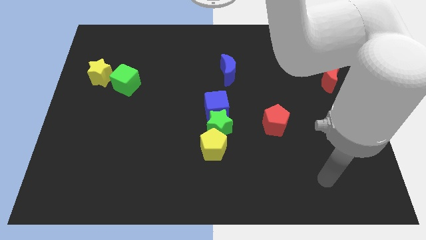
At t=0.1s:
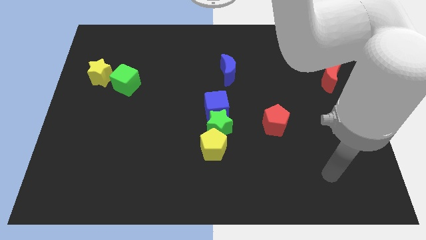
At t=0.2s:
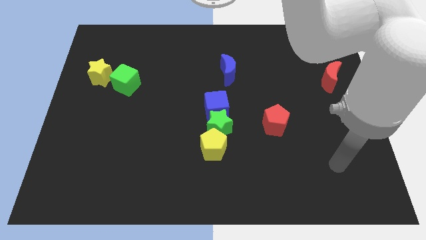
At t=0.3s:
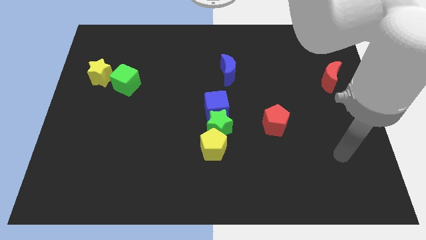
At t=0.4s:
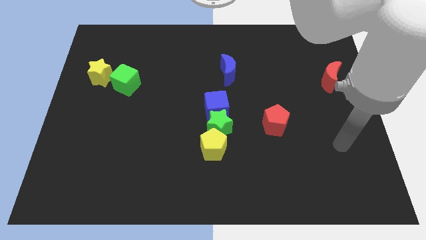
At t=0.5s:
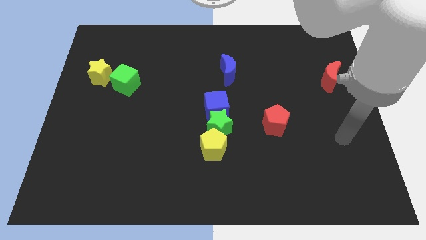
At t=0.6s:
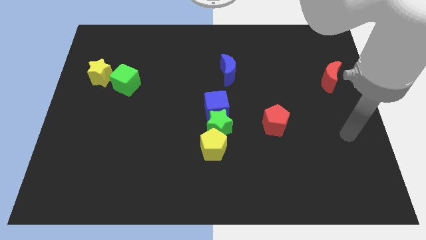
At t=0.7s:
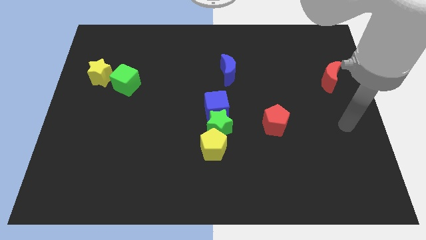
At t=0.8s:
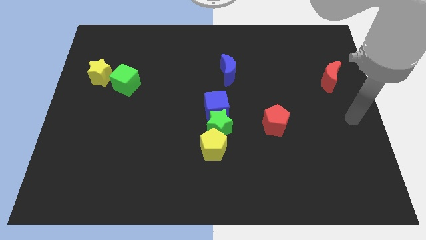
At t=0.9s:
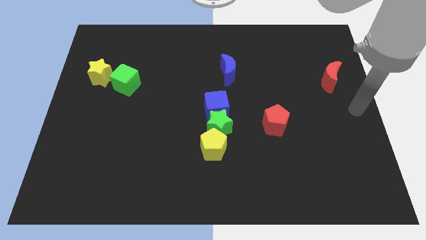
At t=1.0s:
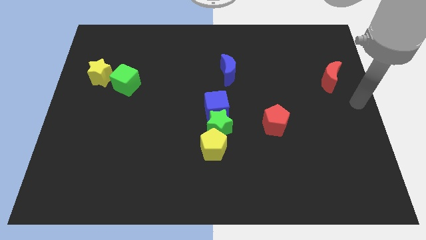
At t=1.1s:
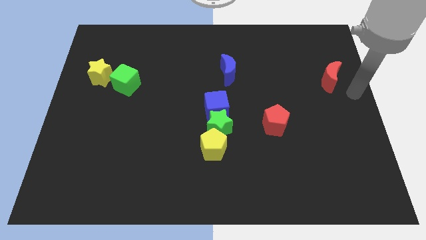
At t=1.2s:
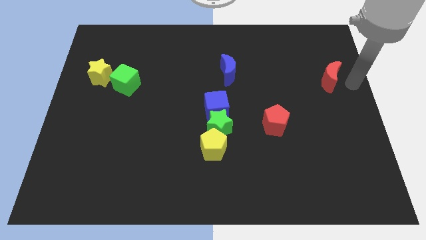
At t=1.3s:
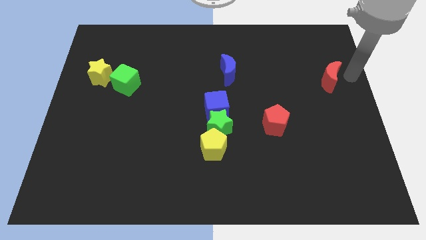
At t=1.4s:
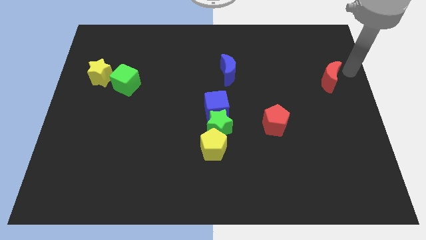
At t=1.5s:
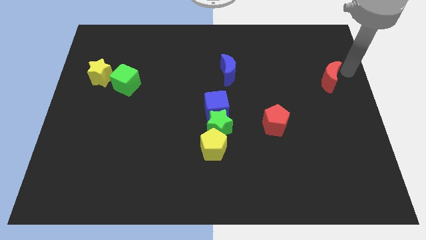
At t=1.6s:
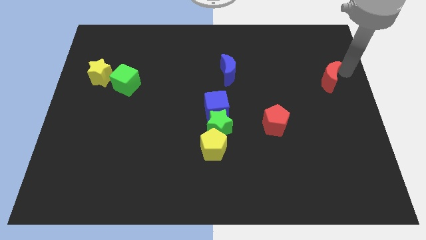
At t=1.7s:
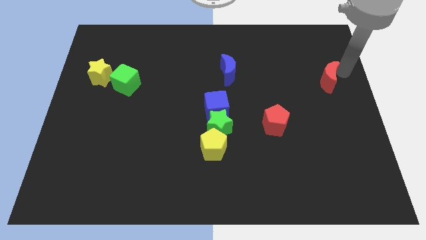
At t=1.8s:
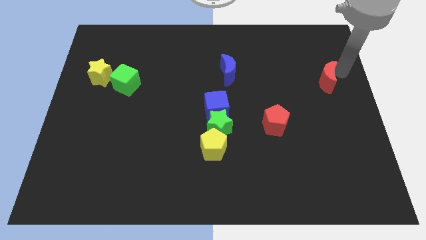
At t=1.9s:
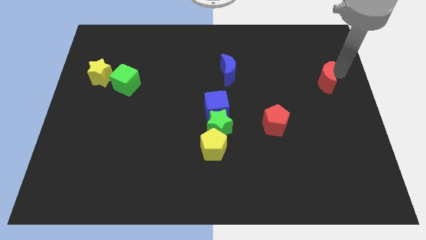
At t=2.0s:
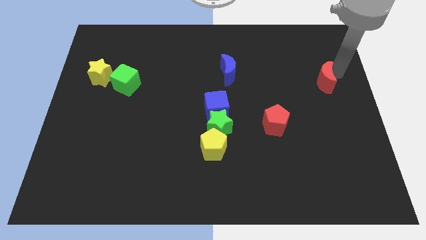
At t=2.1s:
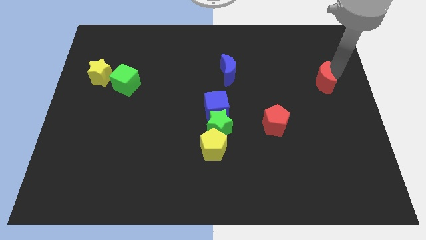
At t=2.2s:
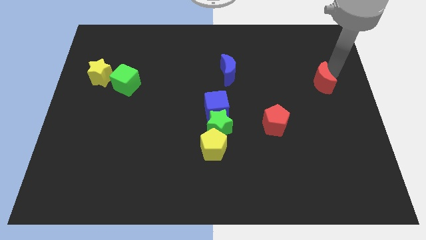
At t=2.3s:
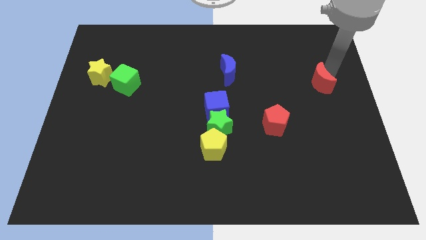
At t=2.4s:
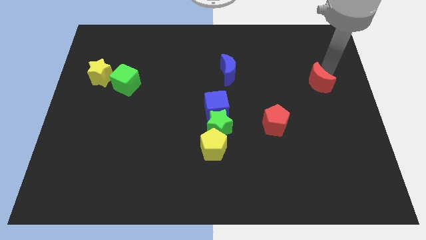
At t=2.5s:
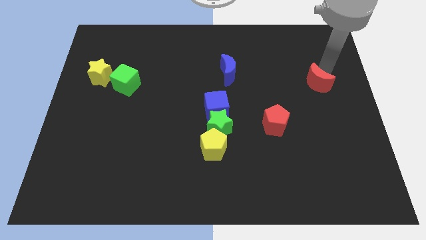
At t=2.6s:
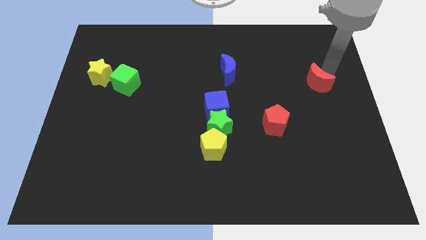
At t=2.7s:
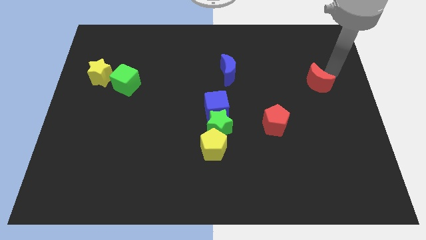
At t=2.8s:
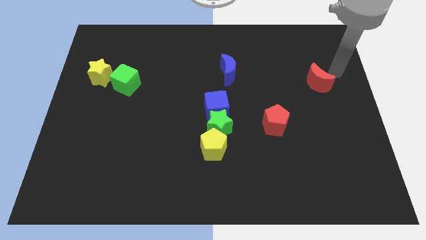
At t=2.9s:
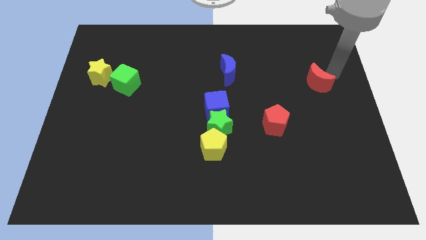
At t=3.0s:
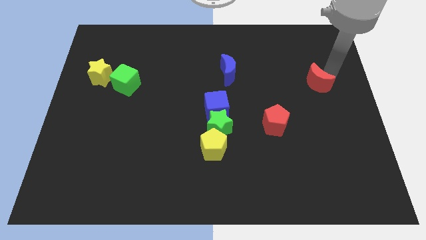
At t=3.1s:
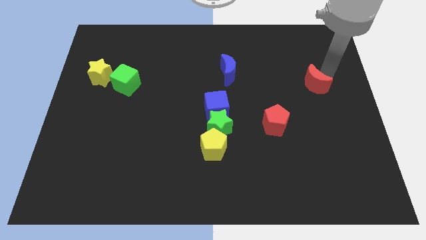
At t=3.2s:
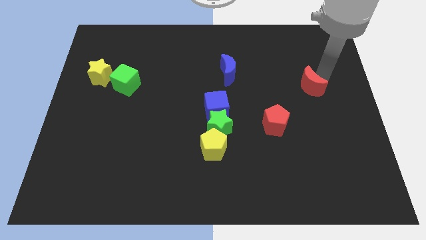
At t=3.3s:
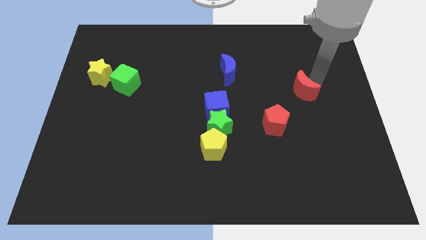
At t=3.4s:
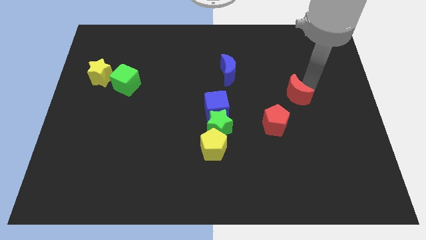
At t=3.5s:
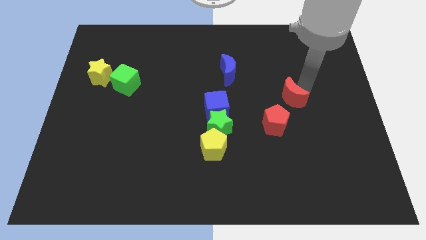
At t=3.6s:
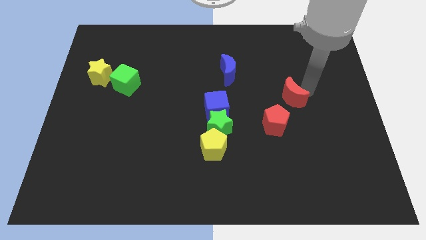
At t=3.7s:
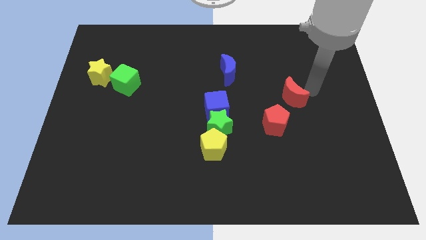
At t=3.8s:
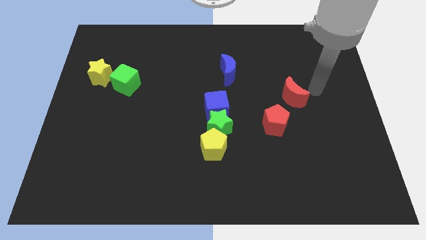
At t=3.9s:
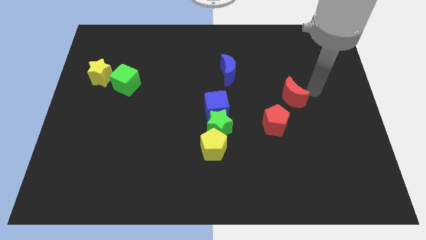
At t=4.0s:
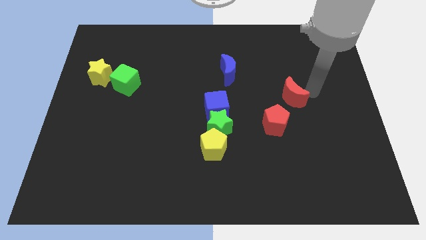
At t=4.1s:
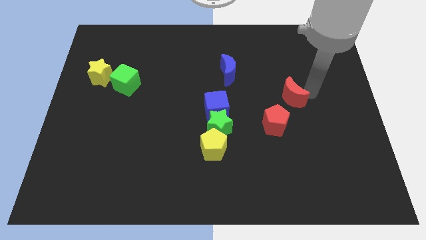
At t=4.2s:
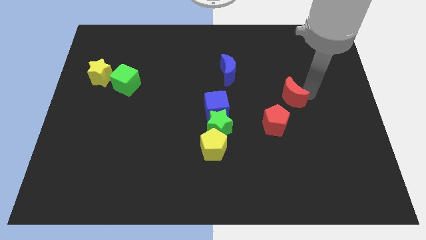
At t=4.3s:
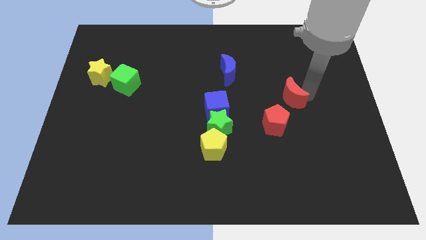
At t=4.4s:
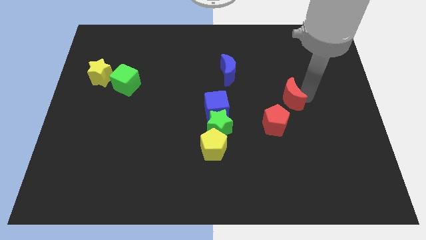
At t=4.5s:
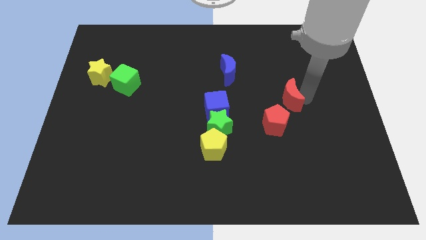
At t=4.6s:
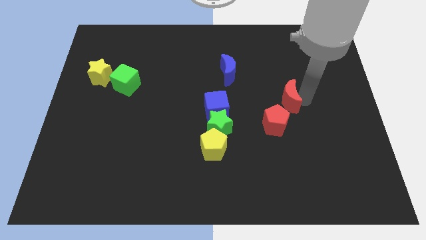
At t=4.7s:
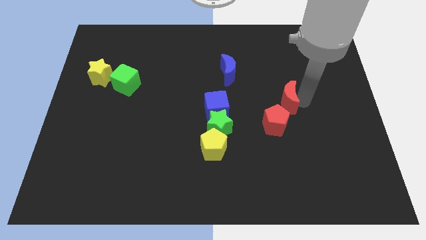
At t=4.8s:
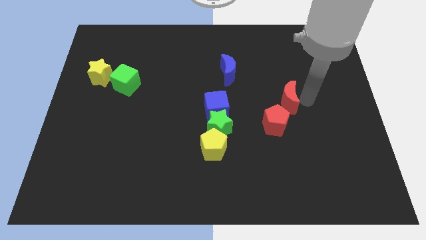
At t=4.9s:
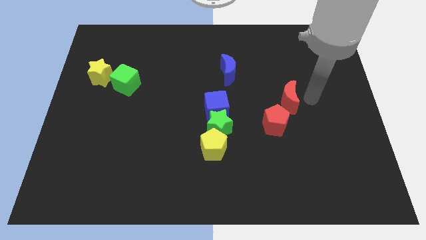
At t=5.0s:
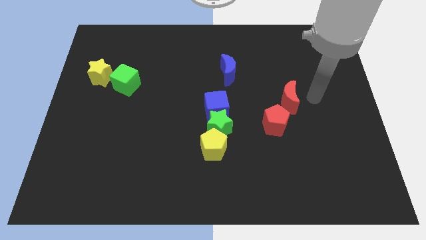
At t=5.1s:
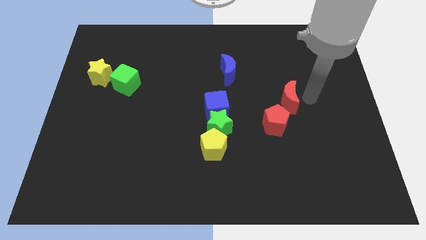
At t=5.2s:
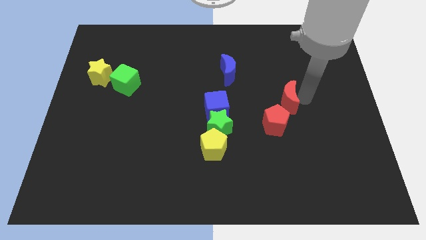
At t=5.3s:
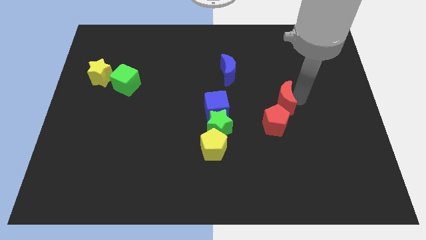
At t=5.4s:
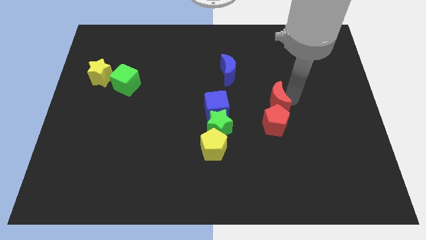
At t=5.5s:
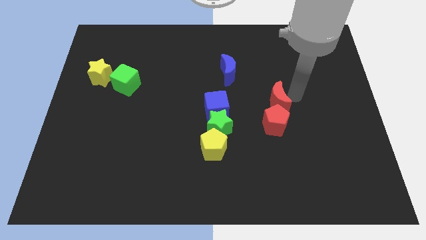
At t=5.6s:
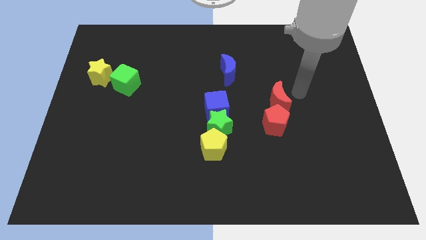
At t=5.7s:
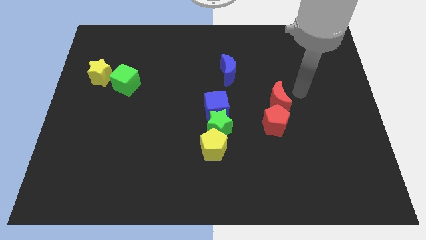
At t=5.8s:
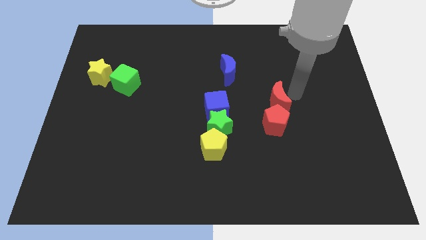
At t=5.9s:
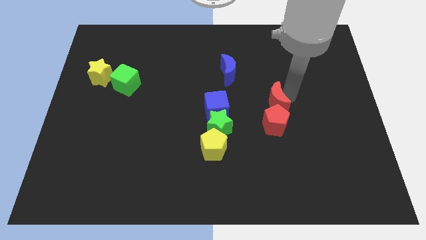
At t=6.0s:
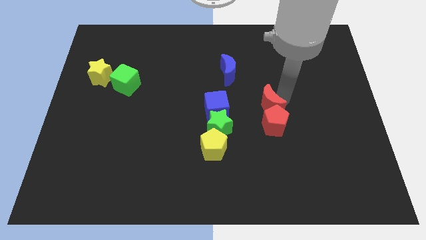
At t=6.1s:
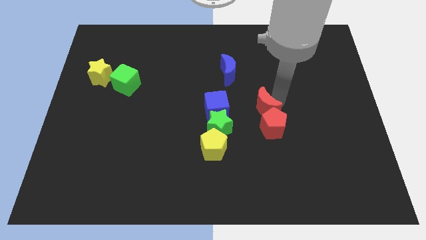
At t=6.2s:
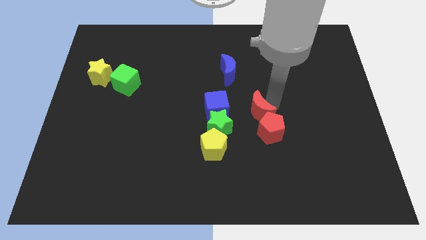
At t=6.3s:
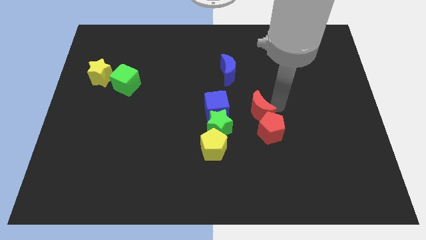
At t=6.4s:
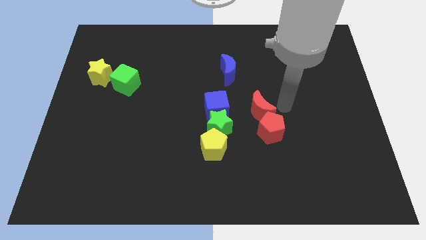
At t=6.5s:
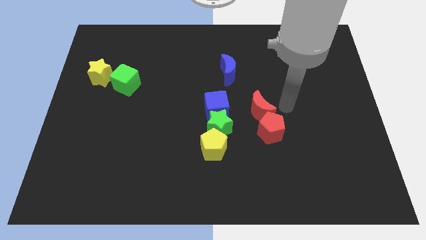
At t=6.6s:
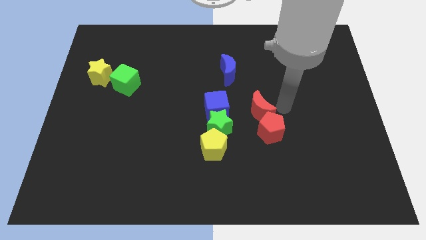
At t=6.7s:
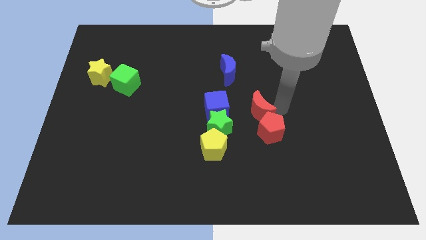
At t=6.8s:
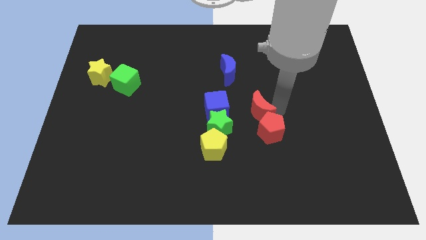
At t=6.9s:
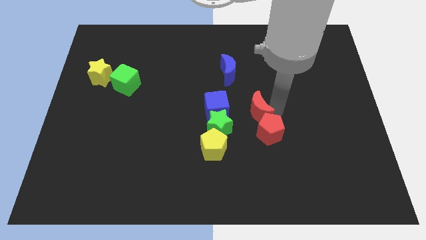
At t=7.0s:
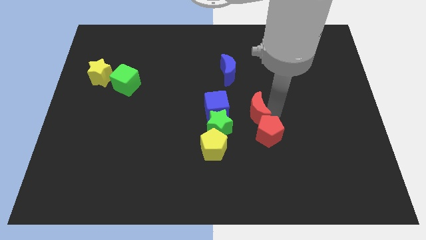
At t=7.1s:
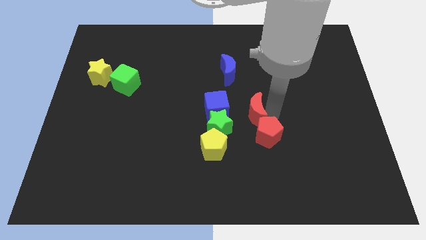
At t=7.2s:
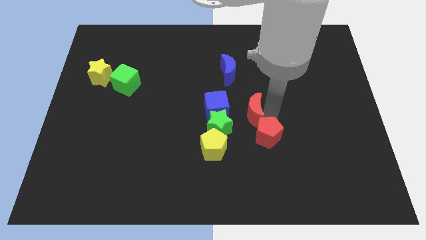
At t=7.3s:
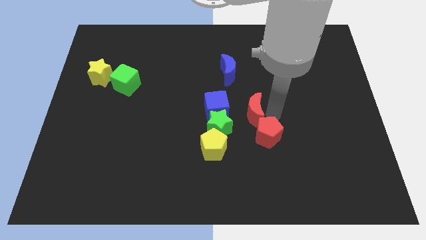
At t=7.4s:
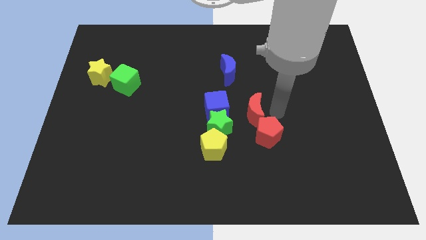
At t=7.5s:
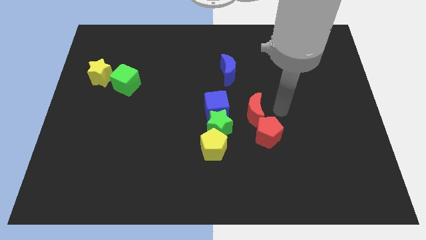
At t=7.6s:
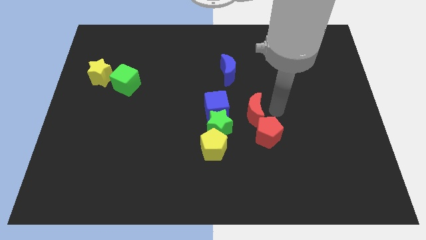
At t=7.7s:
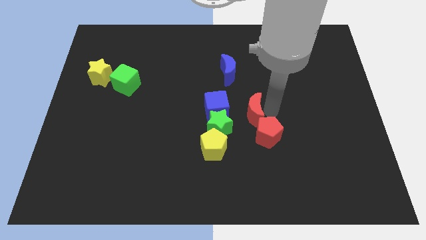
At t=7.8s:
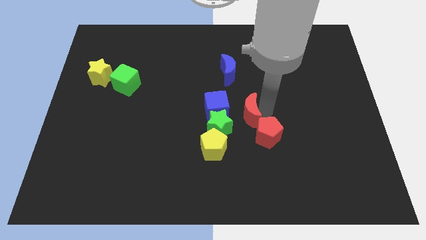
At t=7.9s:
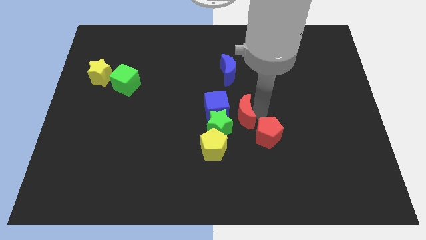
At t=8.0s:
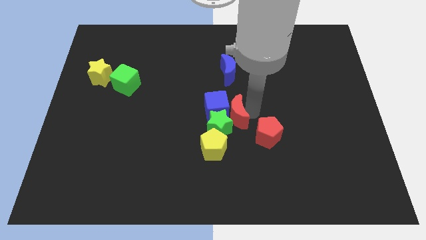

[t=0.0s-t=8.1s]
move the red moon to the green star

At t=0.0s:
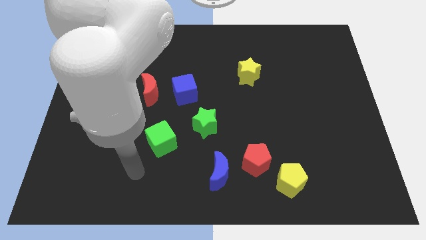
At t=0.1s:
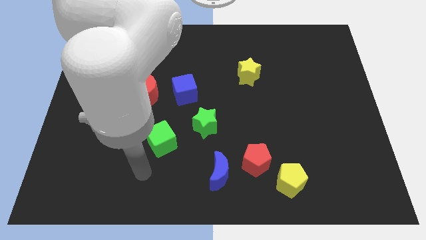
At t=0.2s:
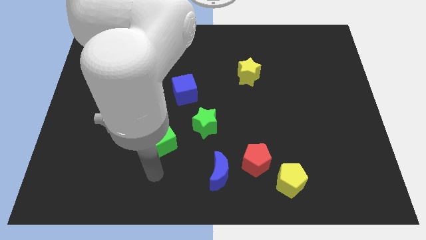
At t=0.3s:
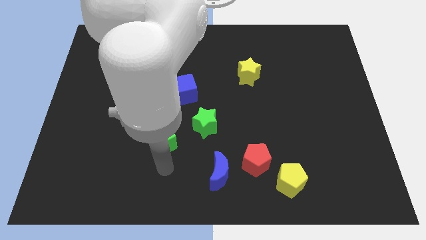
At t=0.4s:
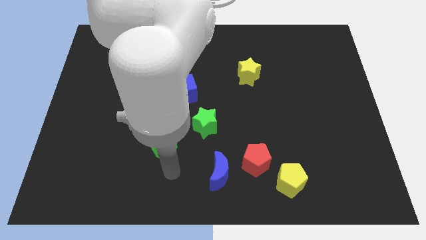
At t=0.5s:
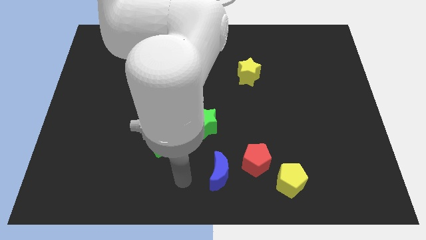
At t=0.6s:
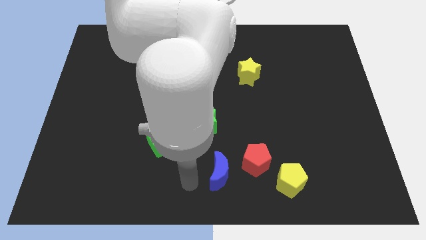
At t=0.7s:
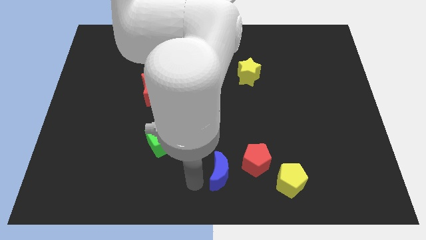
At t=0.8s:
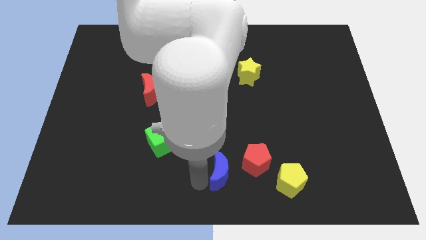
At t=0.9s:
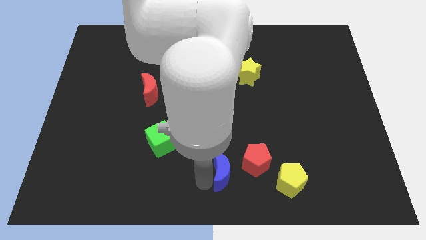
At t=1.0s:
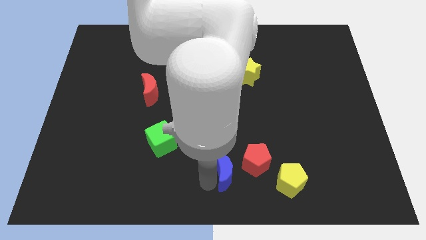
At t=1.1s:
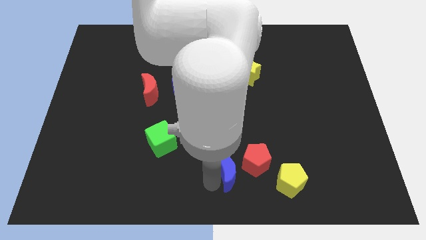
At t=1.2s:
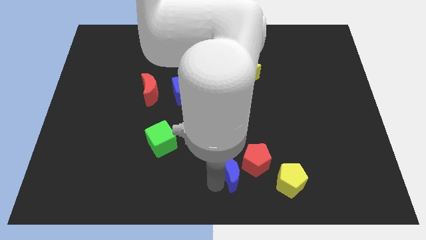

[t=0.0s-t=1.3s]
push the blue moon close to the red pentagon
